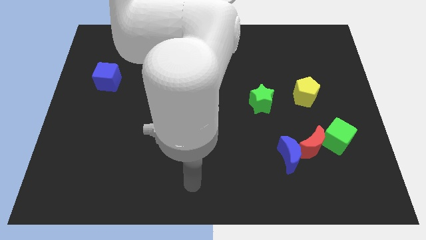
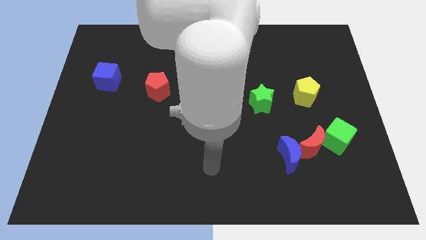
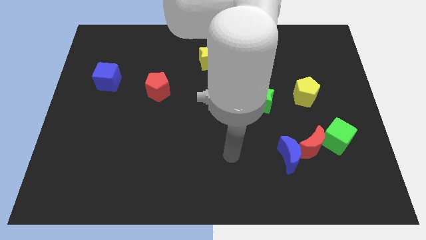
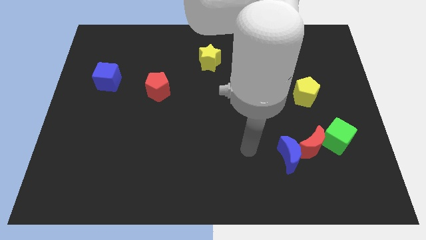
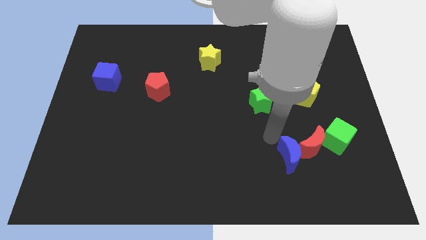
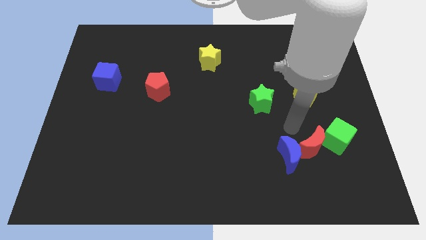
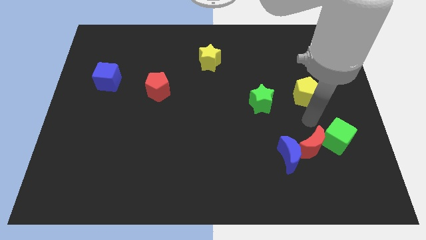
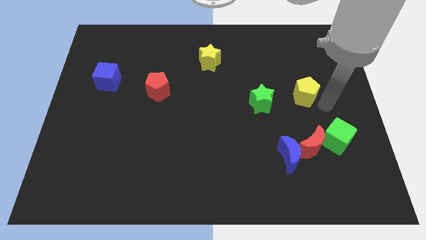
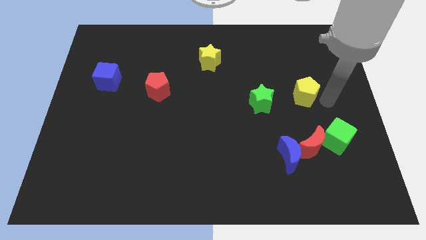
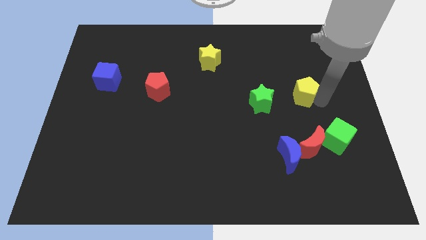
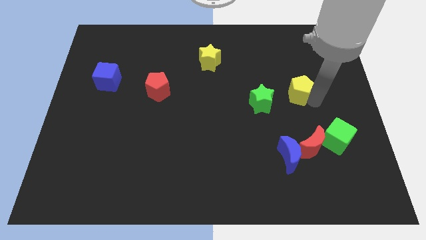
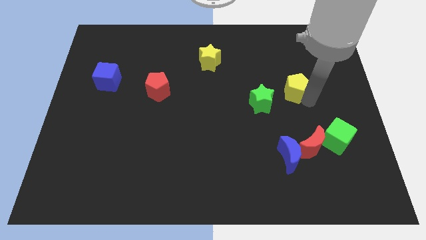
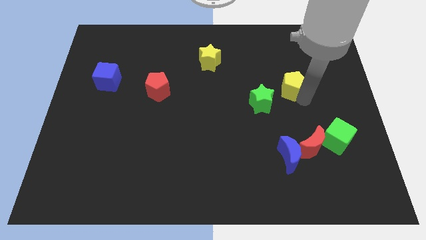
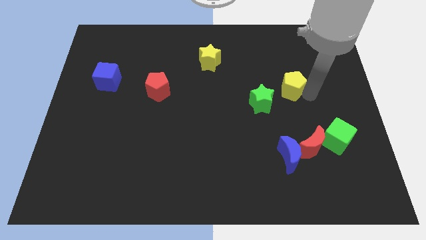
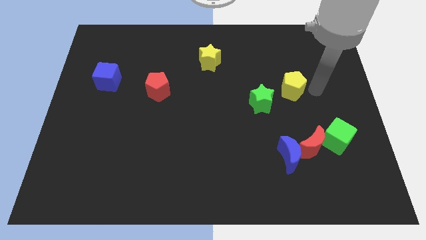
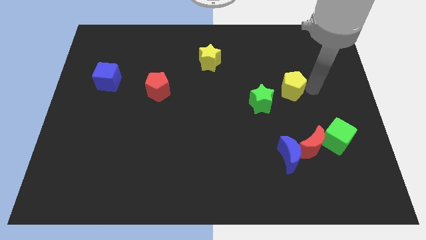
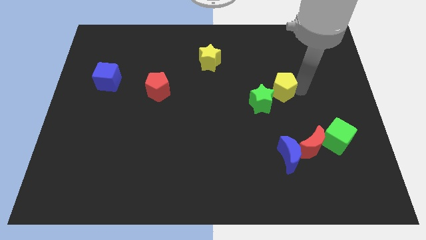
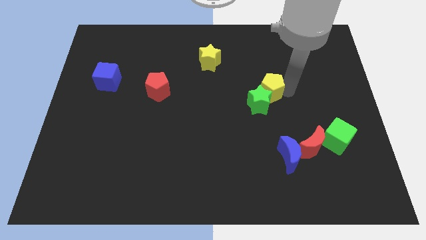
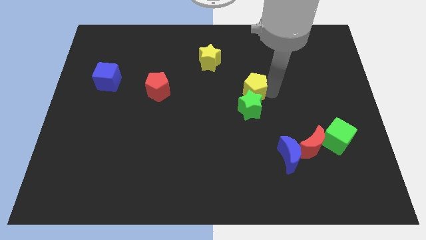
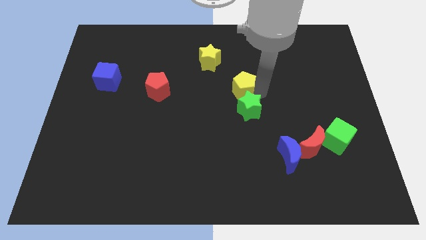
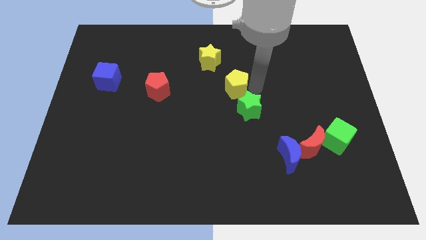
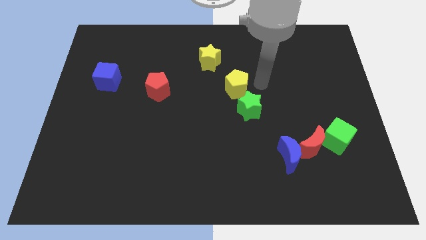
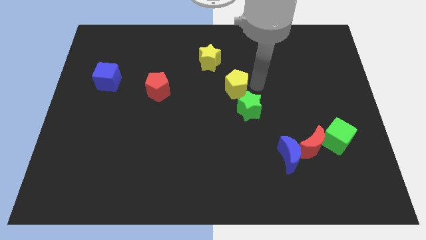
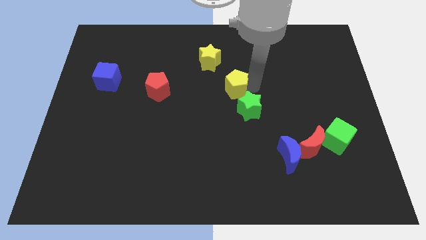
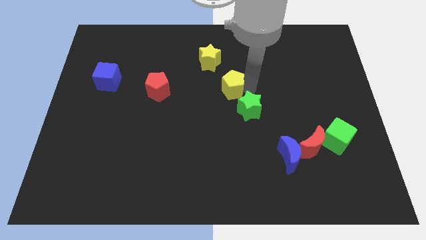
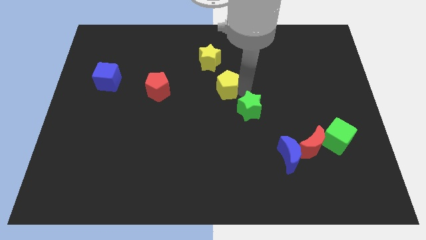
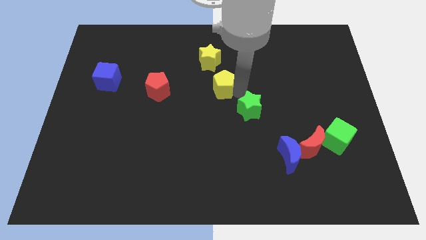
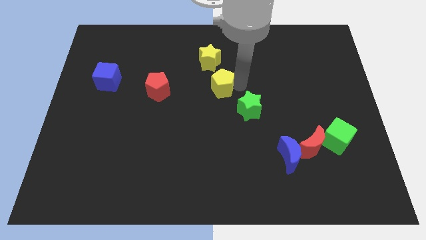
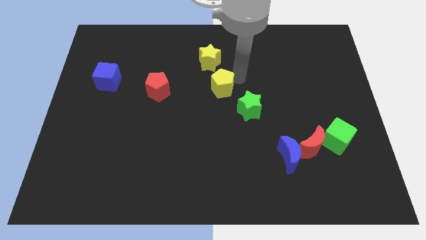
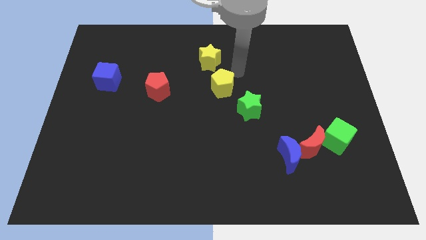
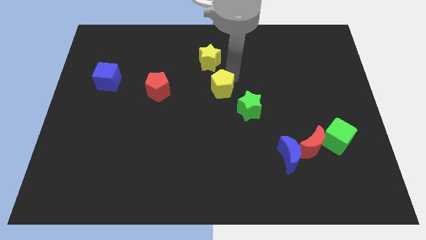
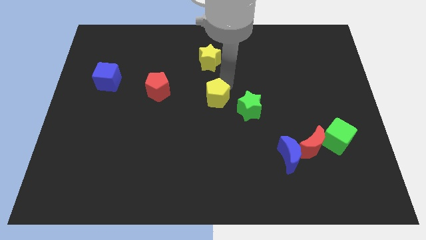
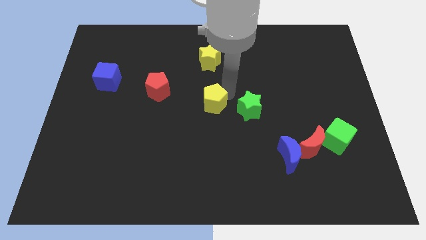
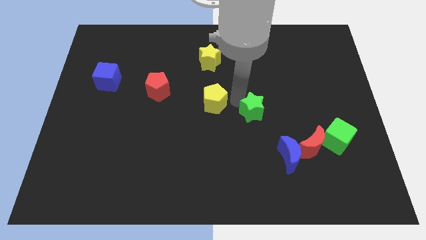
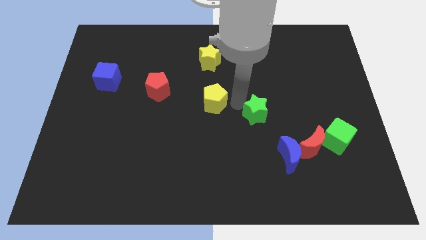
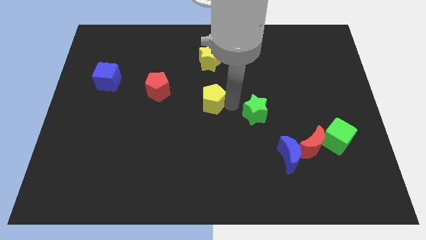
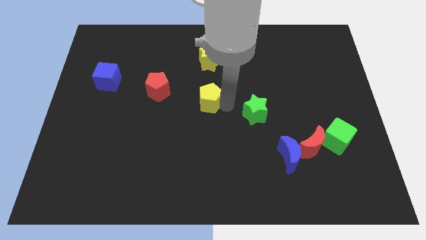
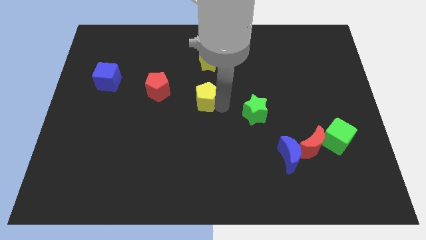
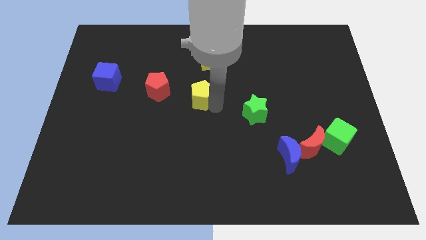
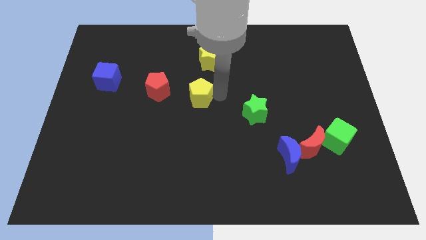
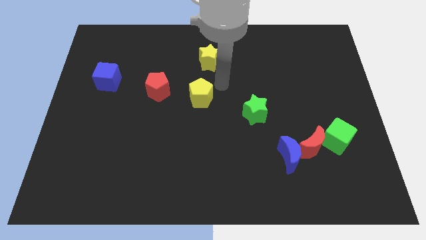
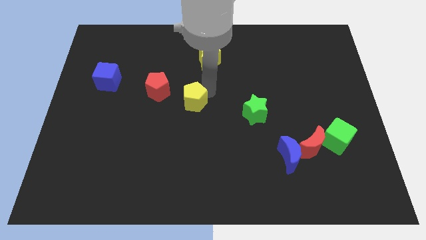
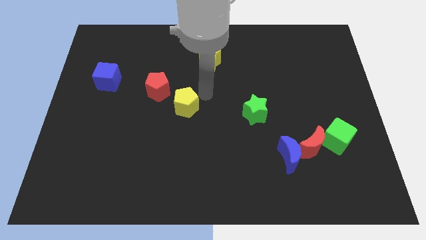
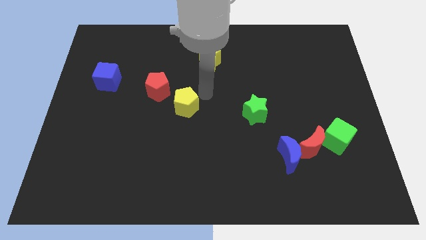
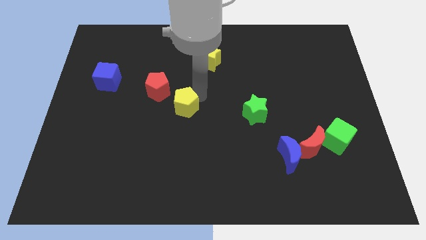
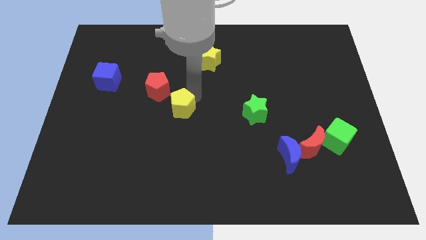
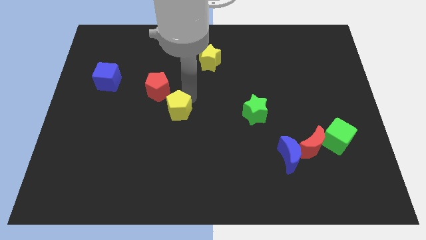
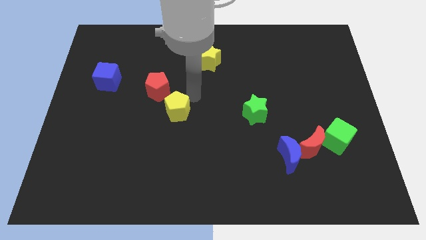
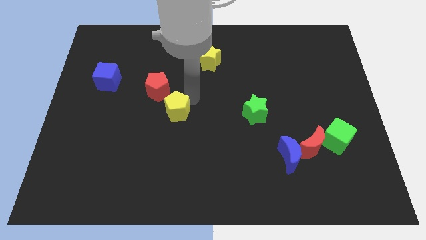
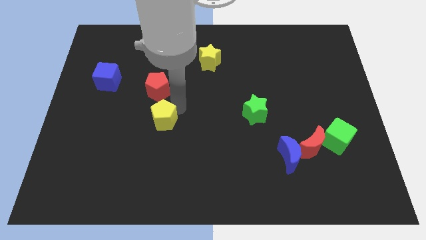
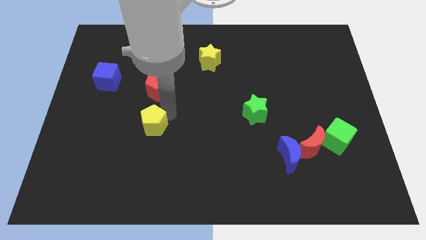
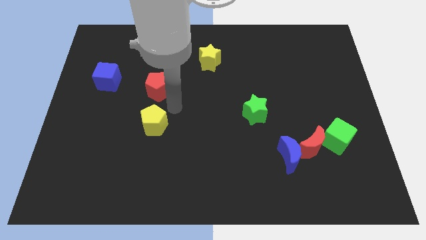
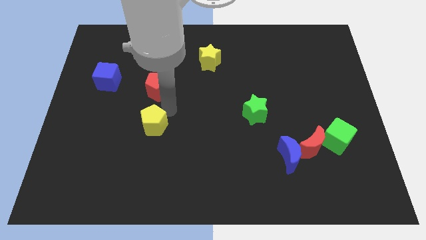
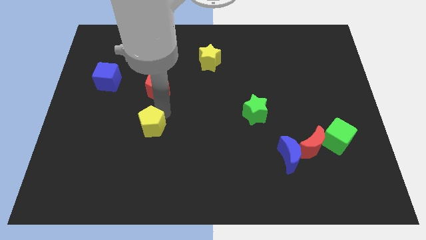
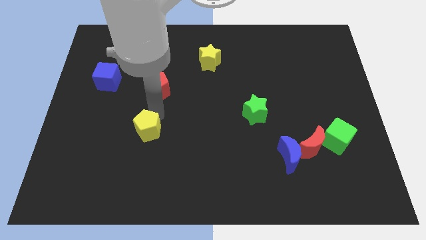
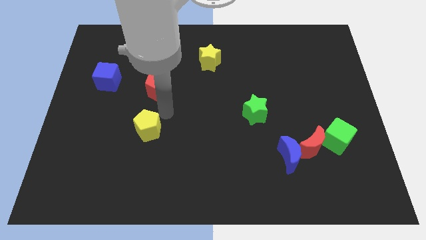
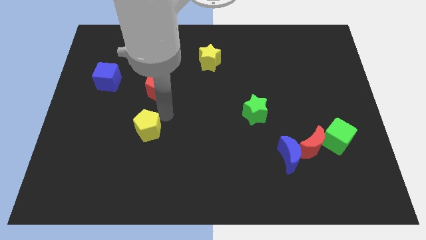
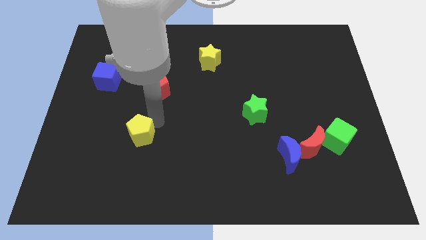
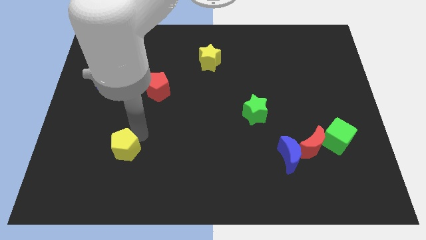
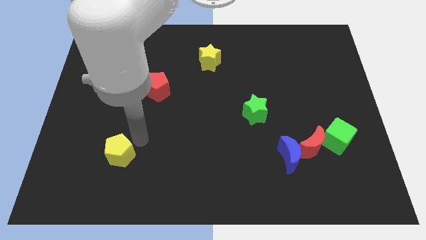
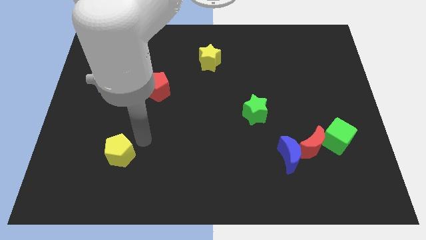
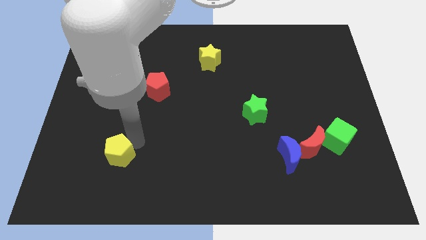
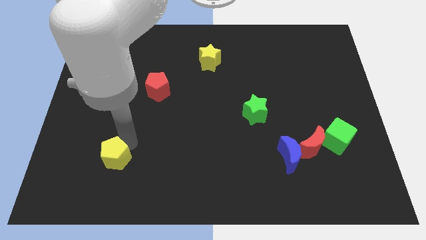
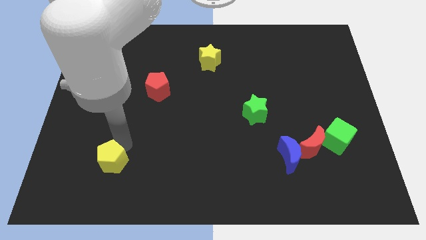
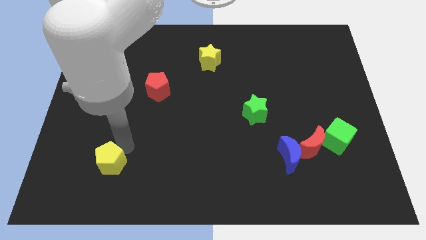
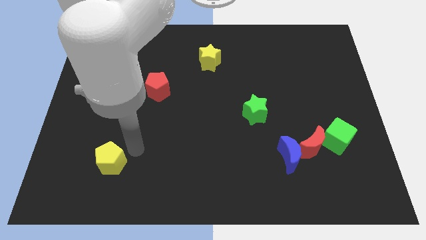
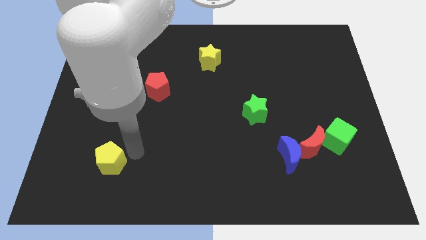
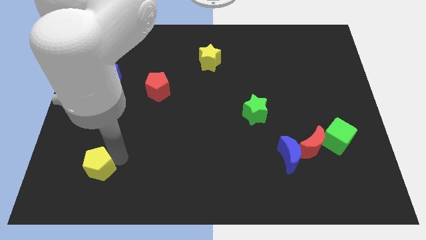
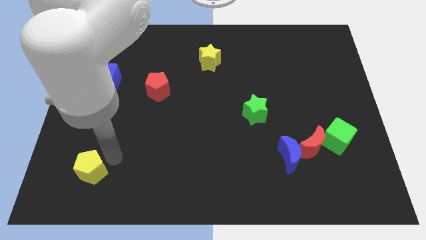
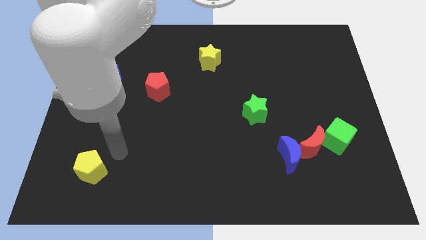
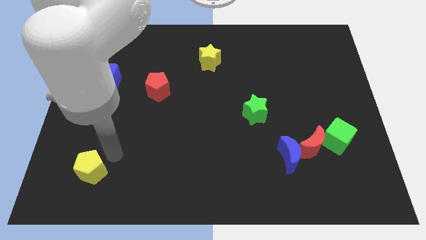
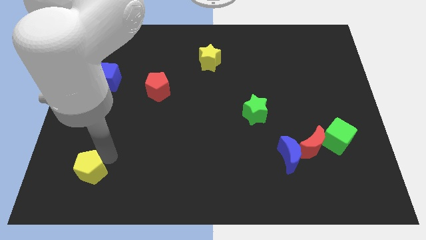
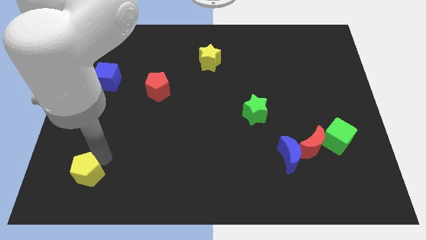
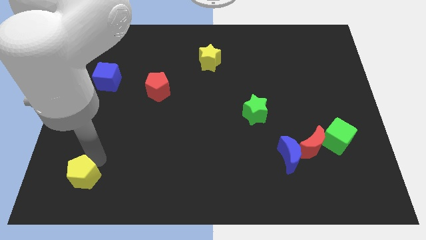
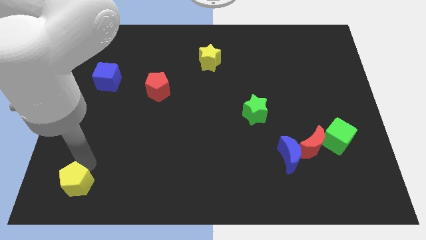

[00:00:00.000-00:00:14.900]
push the yellow pentagon to the bottom left
